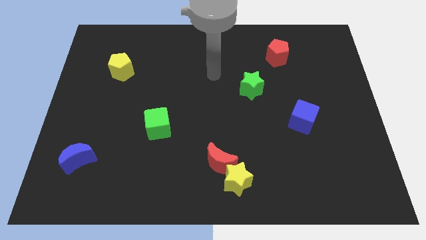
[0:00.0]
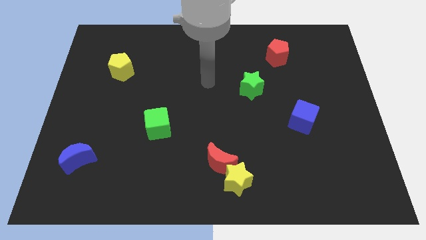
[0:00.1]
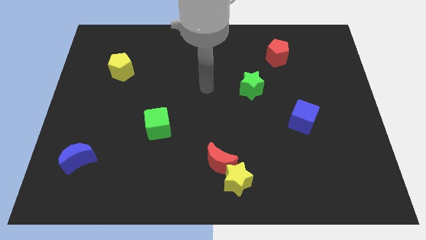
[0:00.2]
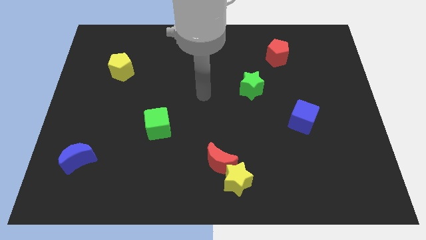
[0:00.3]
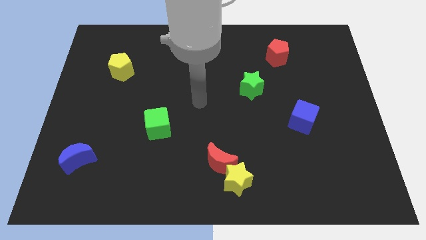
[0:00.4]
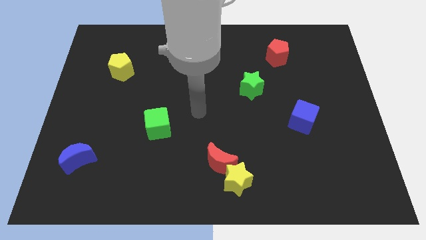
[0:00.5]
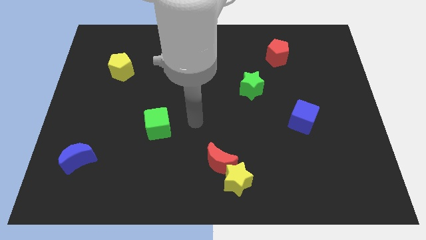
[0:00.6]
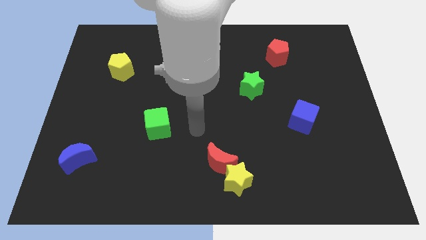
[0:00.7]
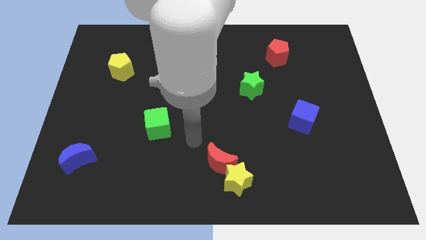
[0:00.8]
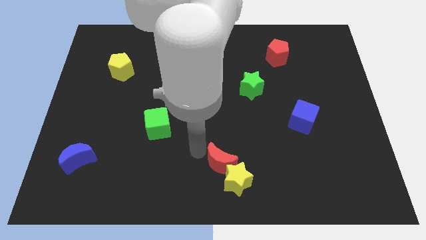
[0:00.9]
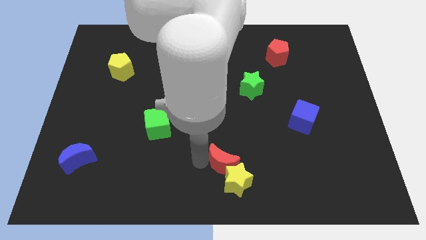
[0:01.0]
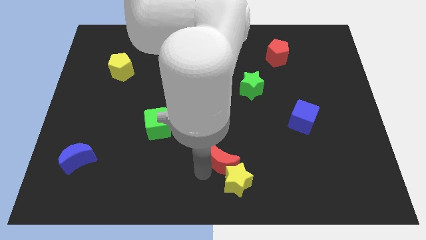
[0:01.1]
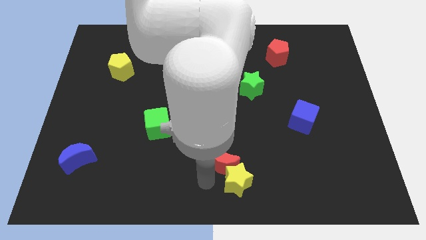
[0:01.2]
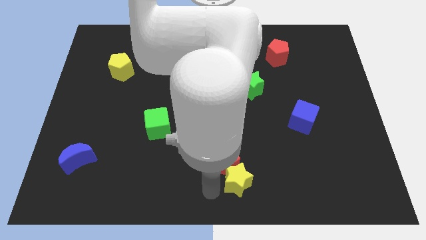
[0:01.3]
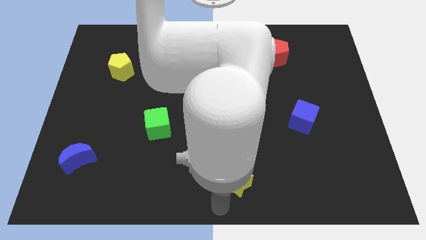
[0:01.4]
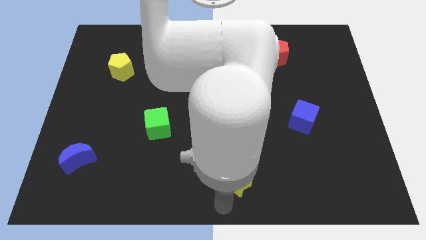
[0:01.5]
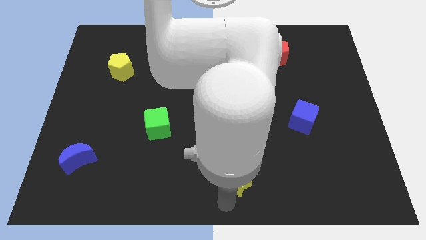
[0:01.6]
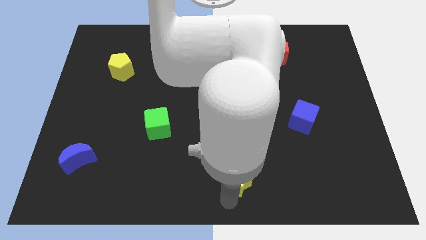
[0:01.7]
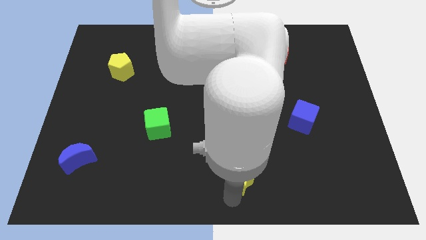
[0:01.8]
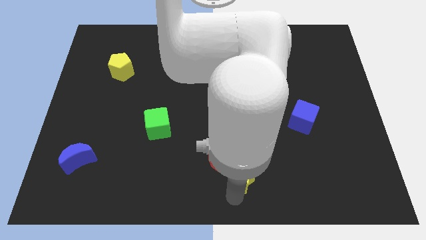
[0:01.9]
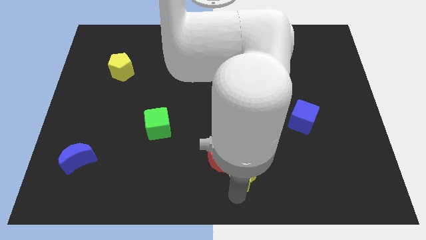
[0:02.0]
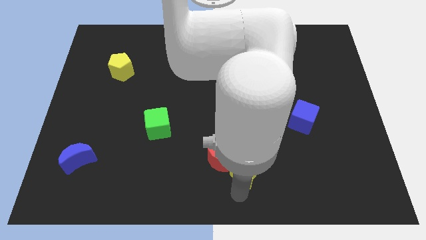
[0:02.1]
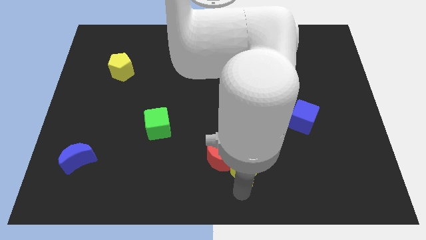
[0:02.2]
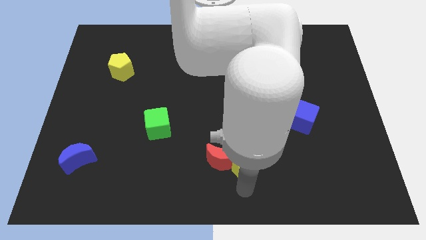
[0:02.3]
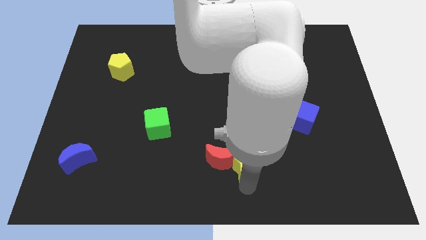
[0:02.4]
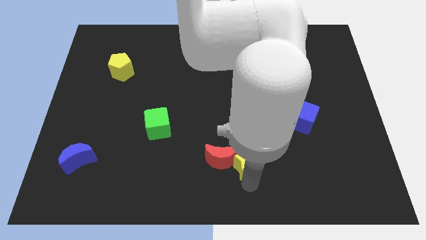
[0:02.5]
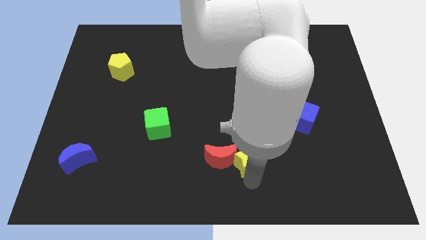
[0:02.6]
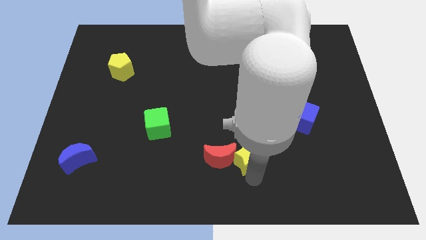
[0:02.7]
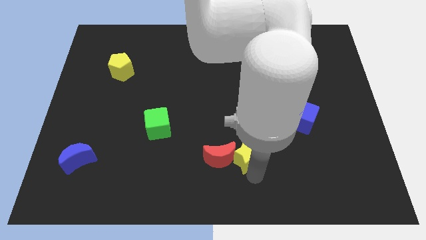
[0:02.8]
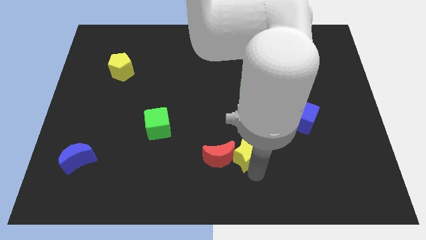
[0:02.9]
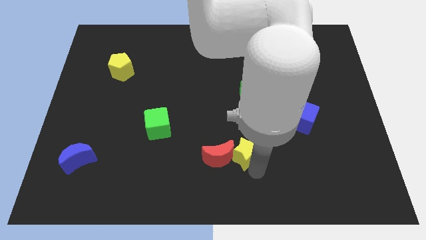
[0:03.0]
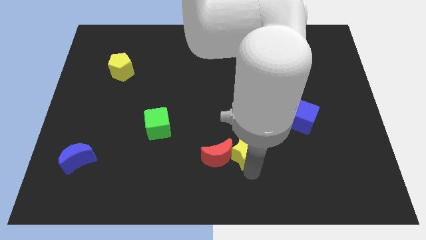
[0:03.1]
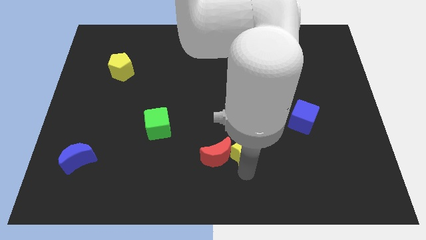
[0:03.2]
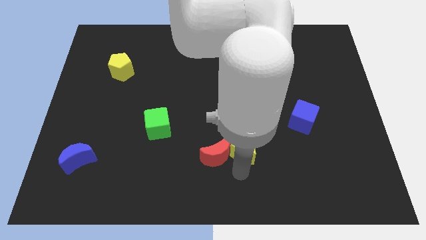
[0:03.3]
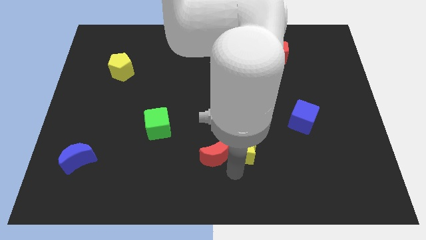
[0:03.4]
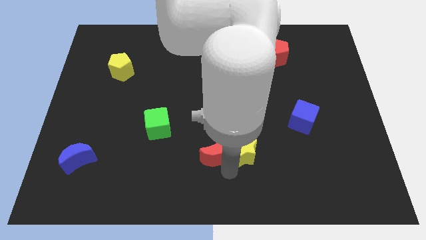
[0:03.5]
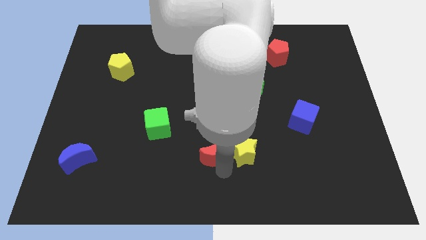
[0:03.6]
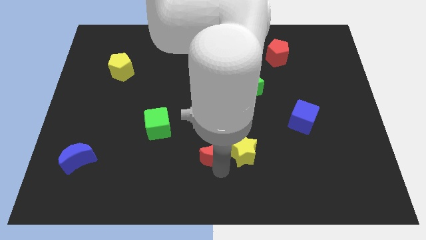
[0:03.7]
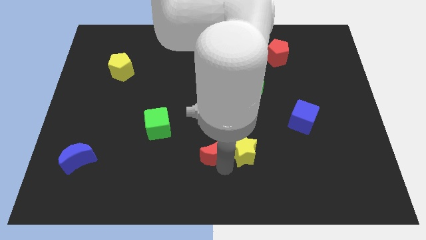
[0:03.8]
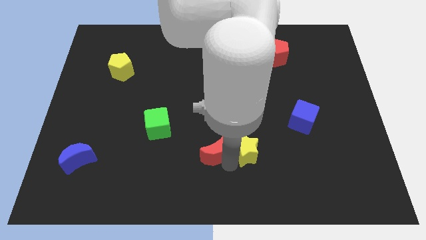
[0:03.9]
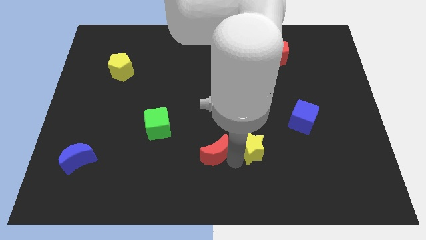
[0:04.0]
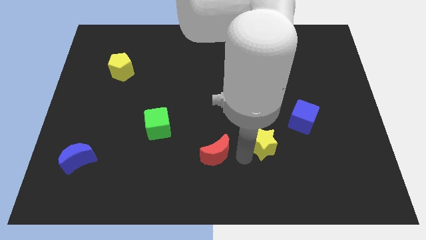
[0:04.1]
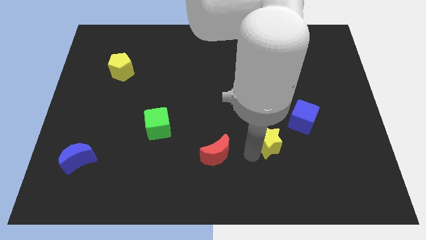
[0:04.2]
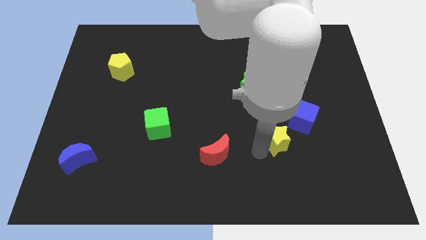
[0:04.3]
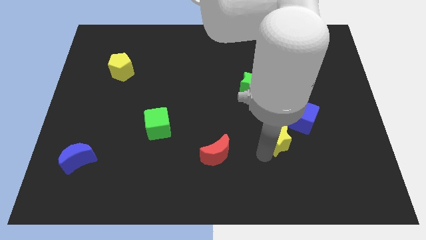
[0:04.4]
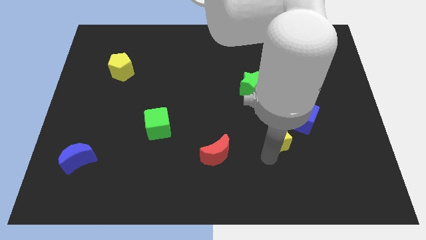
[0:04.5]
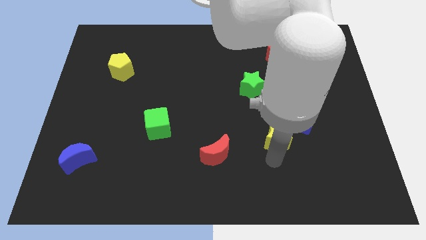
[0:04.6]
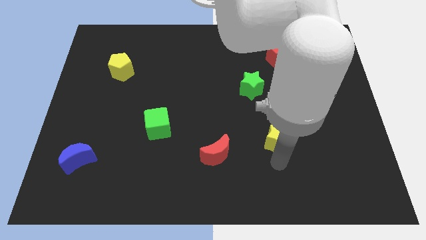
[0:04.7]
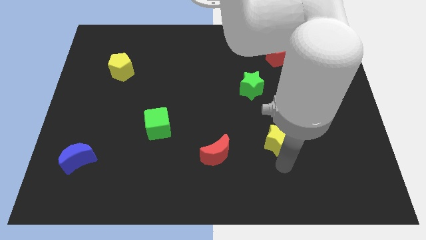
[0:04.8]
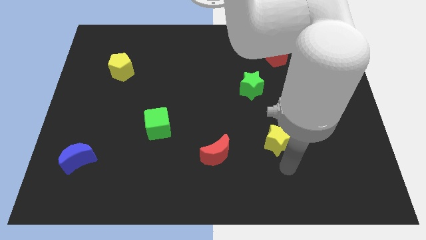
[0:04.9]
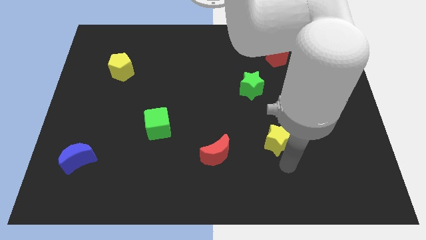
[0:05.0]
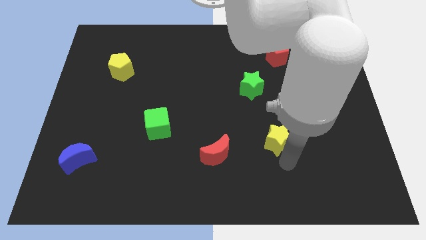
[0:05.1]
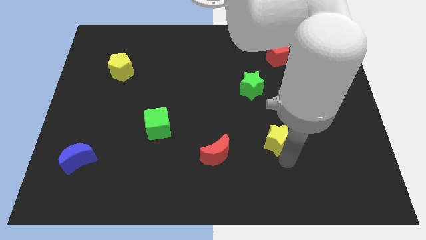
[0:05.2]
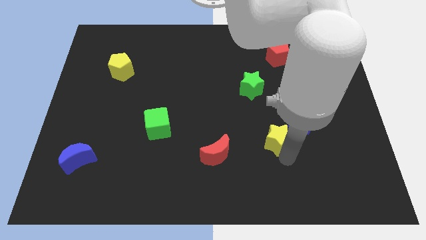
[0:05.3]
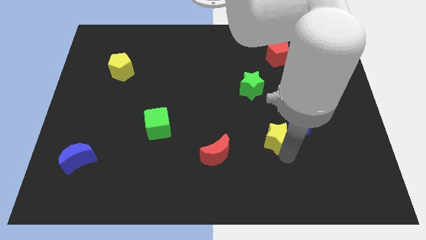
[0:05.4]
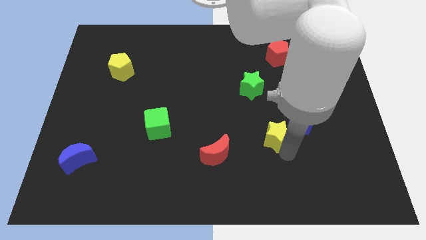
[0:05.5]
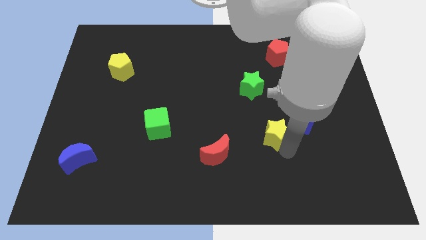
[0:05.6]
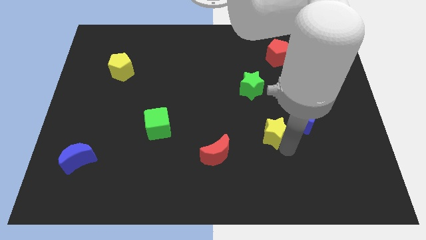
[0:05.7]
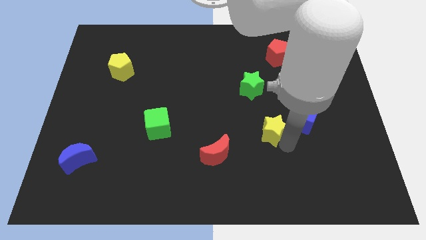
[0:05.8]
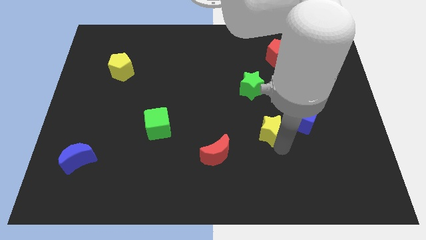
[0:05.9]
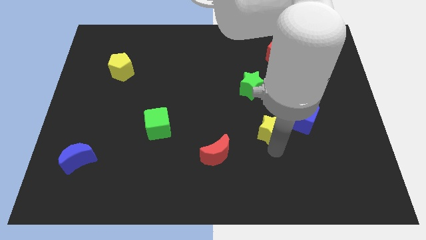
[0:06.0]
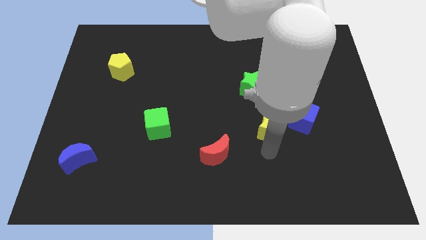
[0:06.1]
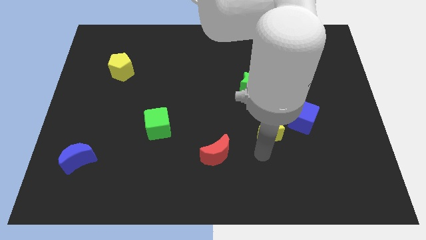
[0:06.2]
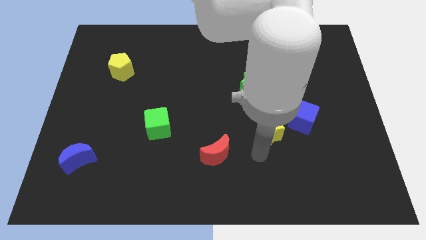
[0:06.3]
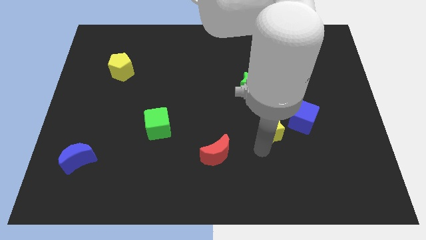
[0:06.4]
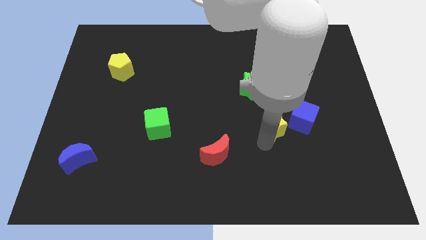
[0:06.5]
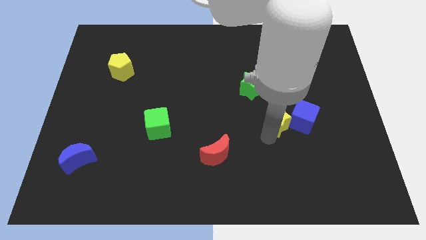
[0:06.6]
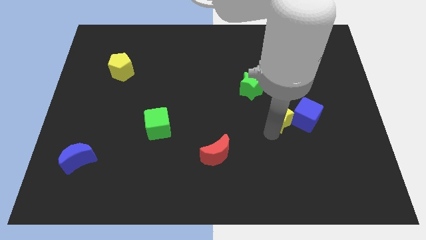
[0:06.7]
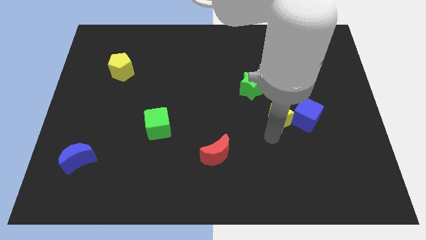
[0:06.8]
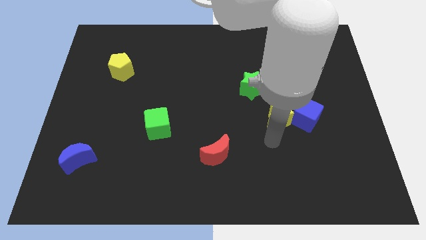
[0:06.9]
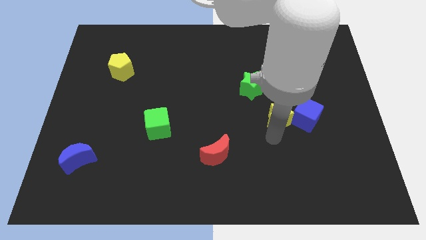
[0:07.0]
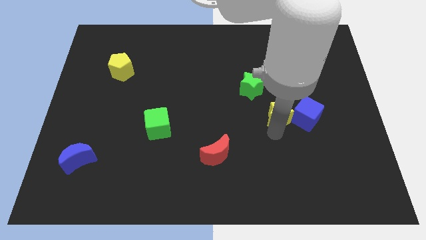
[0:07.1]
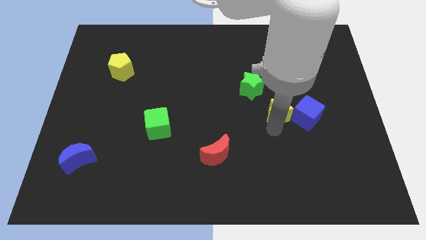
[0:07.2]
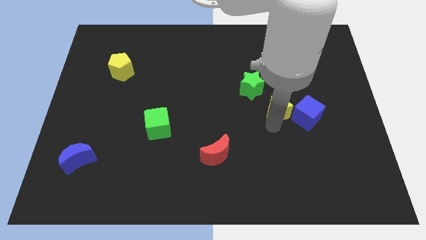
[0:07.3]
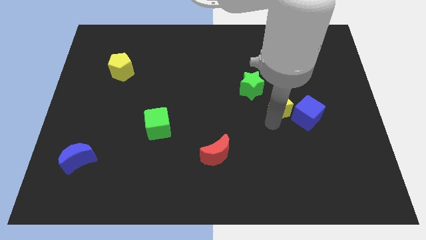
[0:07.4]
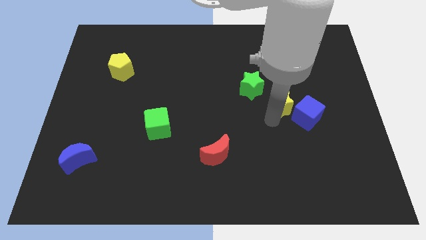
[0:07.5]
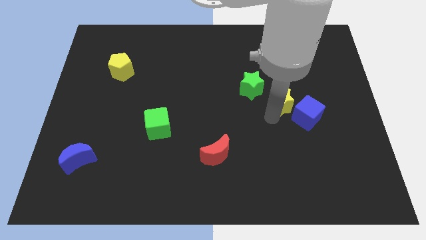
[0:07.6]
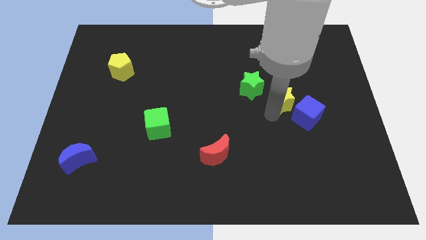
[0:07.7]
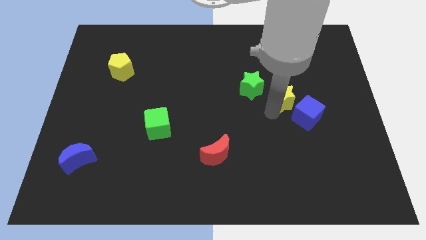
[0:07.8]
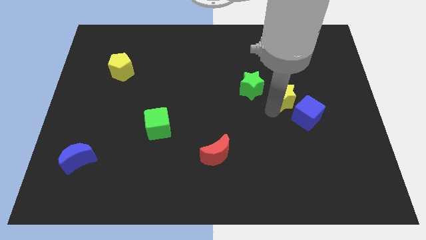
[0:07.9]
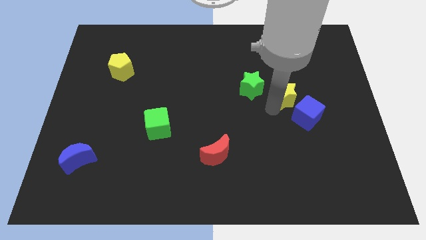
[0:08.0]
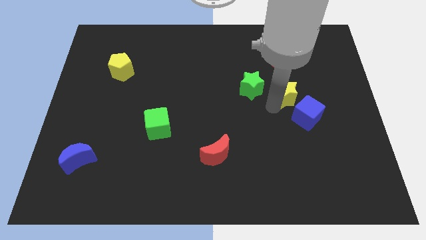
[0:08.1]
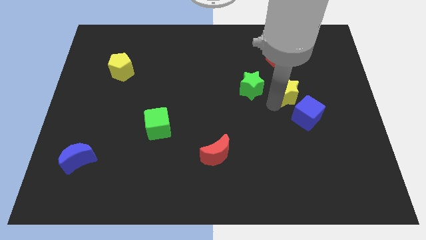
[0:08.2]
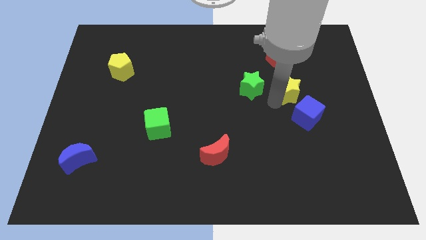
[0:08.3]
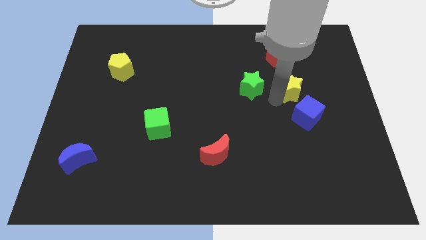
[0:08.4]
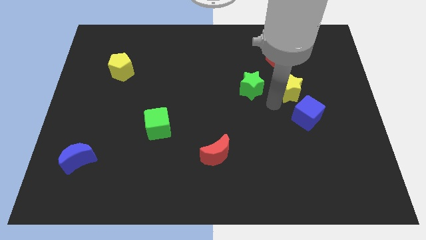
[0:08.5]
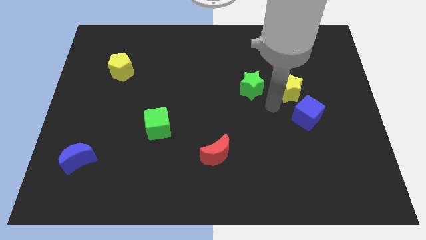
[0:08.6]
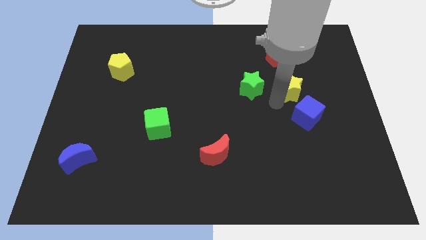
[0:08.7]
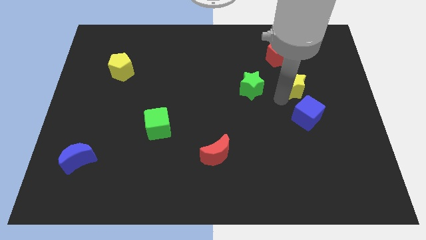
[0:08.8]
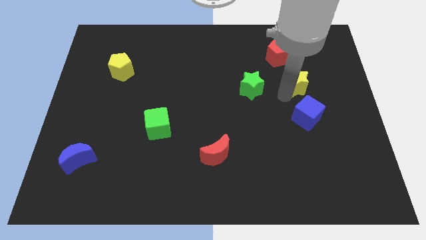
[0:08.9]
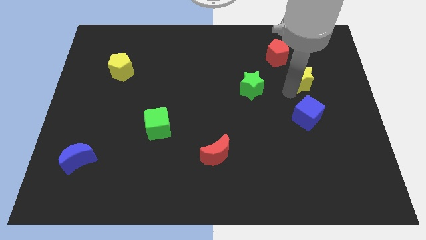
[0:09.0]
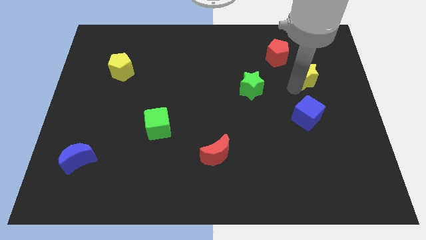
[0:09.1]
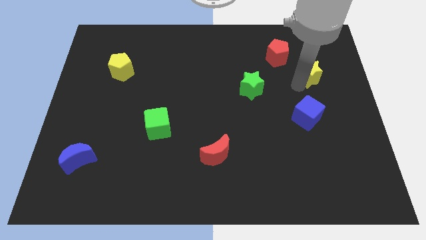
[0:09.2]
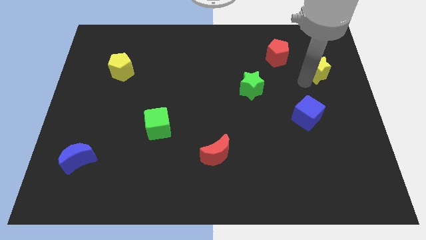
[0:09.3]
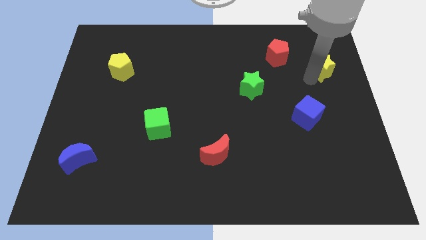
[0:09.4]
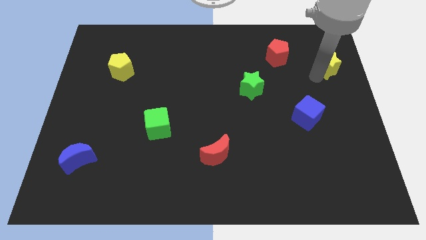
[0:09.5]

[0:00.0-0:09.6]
put the yellow star right of the red pentagon
